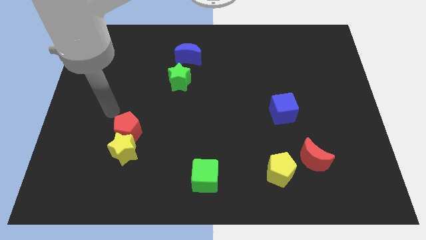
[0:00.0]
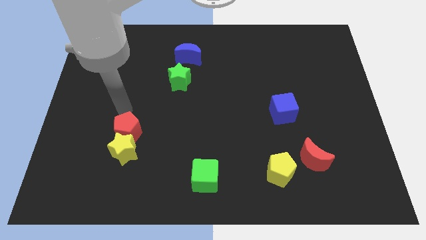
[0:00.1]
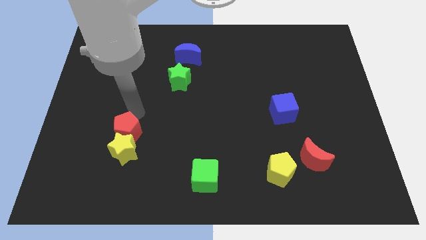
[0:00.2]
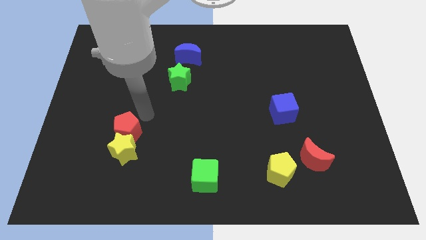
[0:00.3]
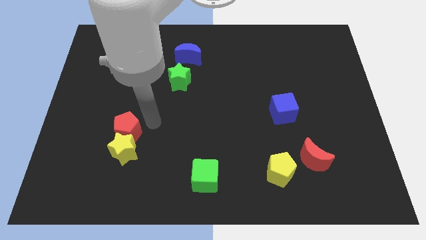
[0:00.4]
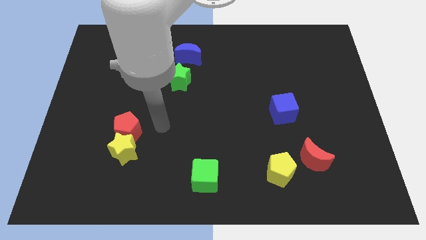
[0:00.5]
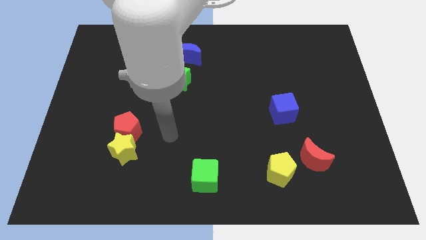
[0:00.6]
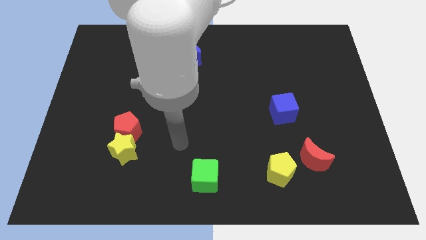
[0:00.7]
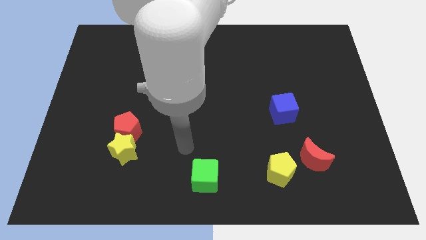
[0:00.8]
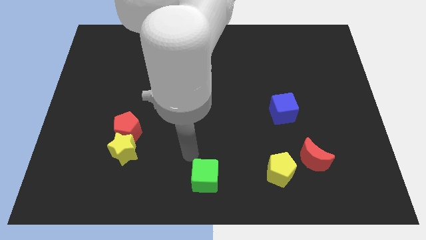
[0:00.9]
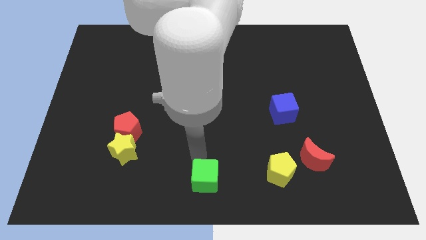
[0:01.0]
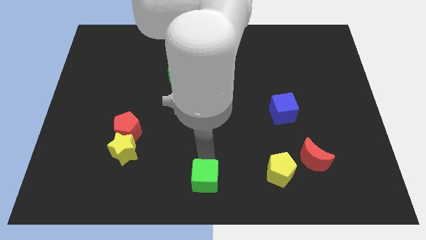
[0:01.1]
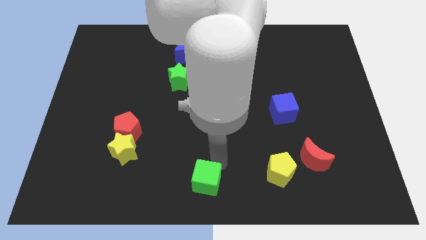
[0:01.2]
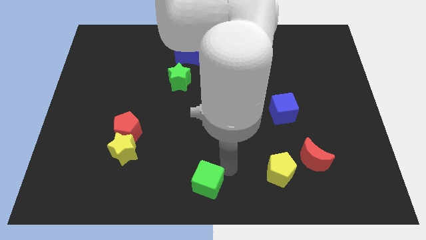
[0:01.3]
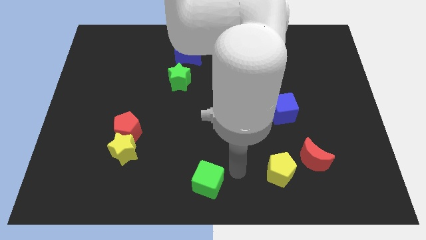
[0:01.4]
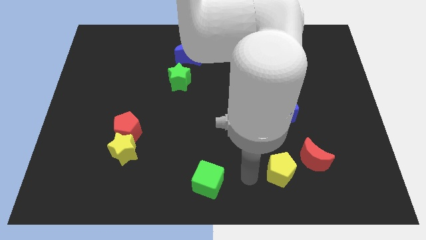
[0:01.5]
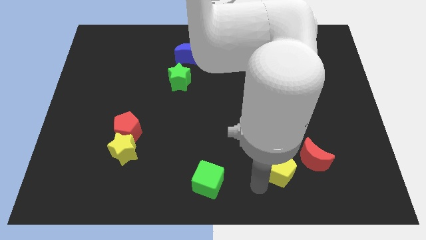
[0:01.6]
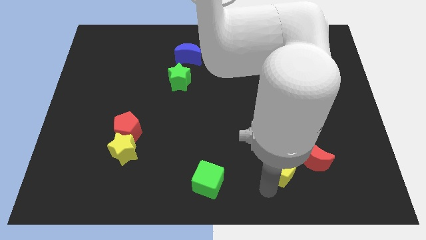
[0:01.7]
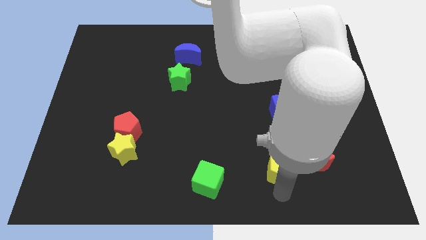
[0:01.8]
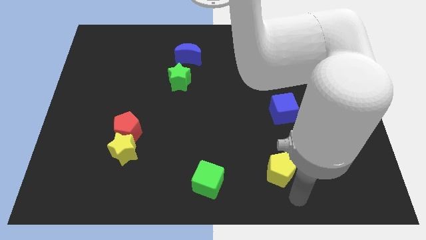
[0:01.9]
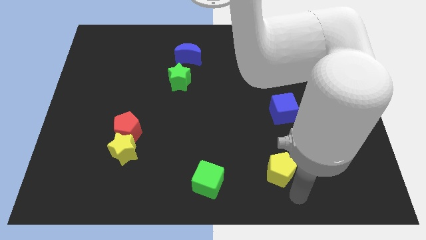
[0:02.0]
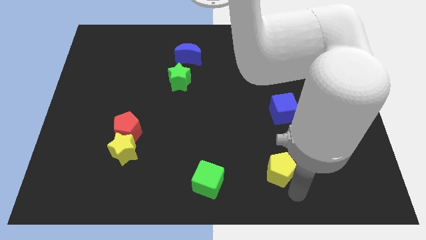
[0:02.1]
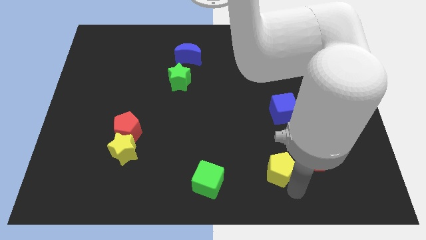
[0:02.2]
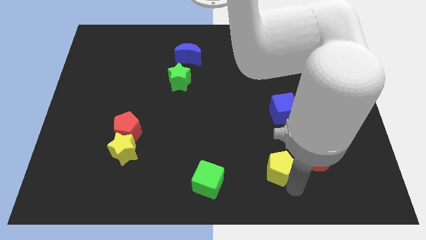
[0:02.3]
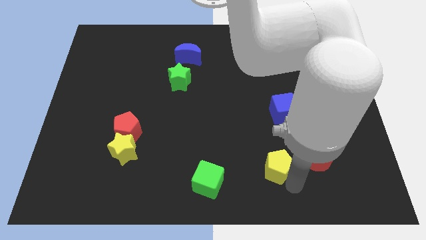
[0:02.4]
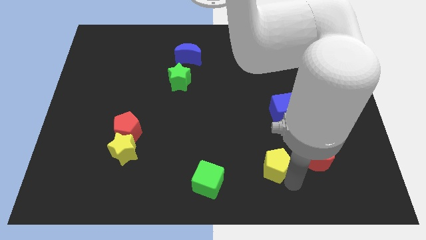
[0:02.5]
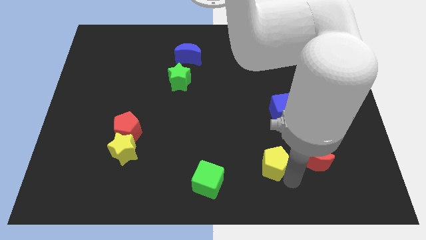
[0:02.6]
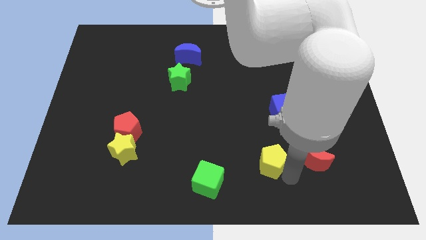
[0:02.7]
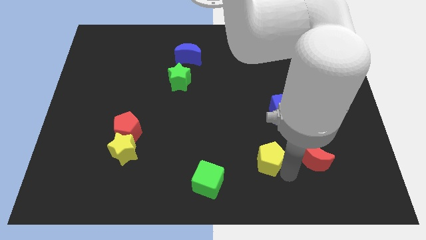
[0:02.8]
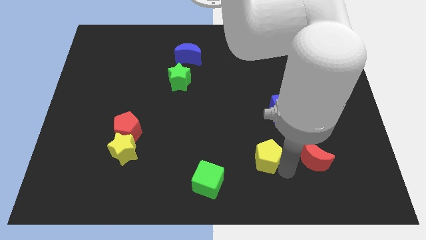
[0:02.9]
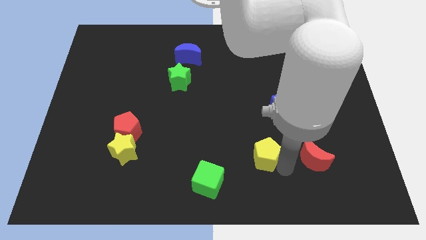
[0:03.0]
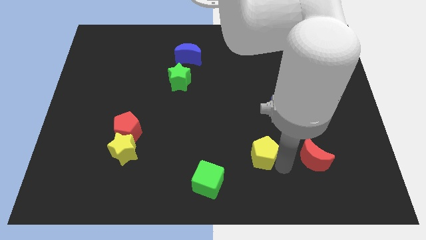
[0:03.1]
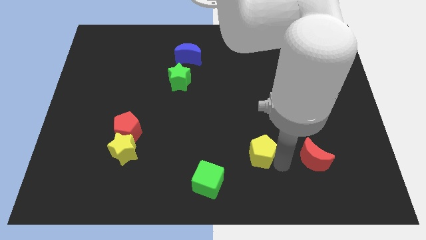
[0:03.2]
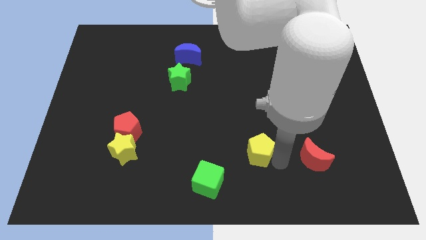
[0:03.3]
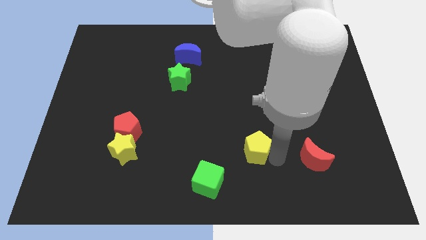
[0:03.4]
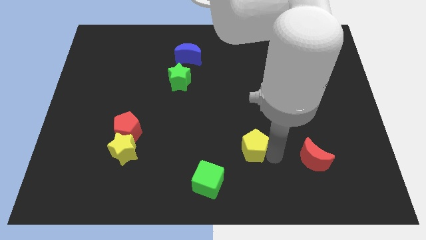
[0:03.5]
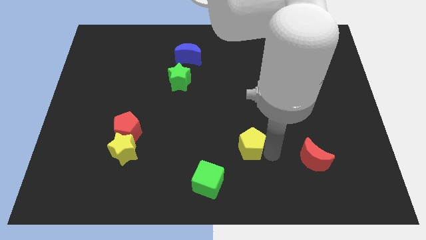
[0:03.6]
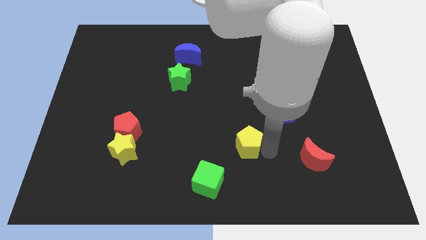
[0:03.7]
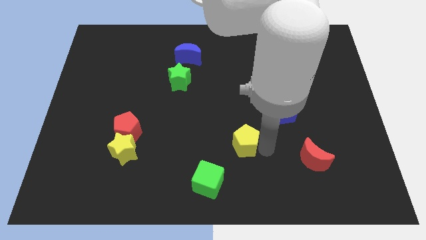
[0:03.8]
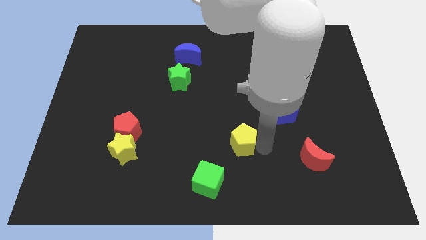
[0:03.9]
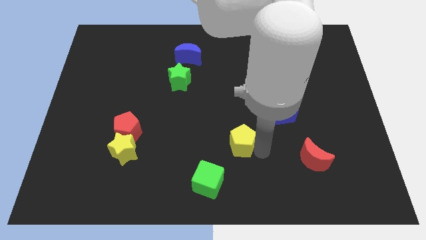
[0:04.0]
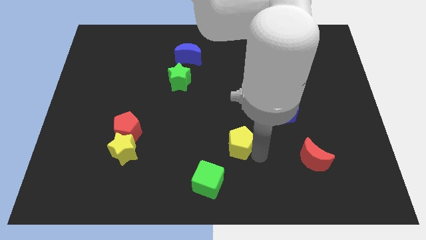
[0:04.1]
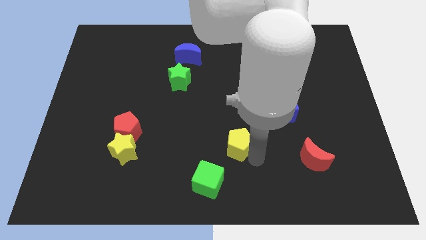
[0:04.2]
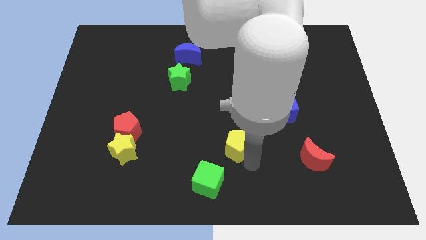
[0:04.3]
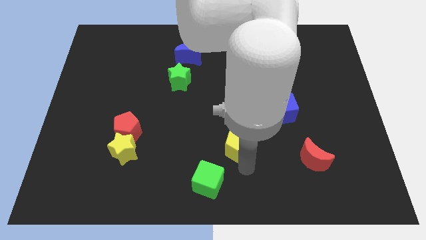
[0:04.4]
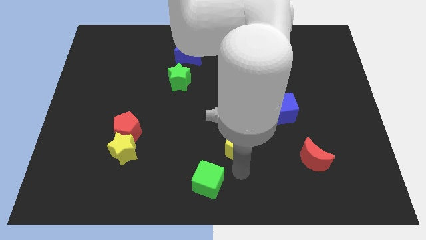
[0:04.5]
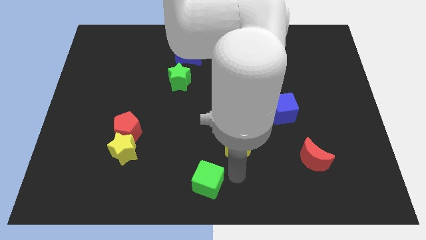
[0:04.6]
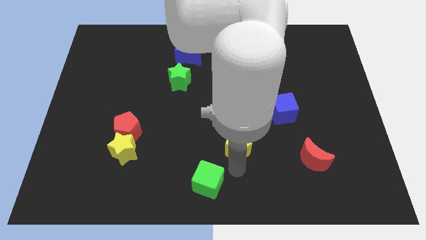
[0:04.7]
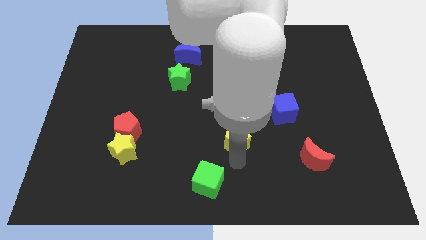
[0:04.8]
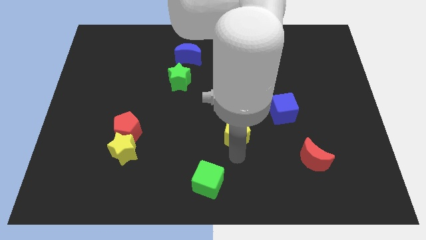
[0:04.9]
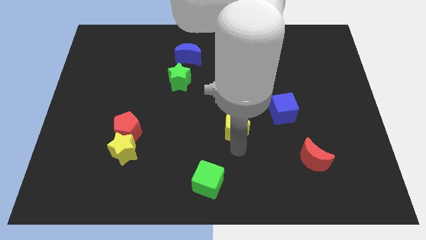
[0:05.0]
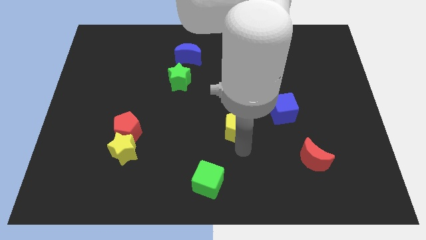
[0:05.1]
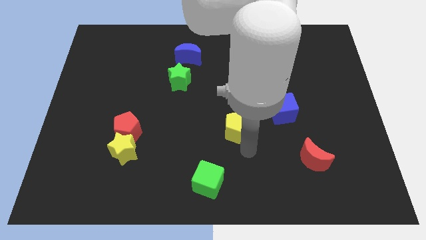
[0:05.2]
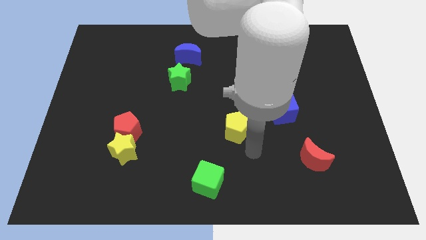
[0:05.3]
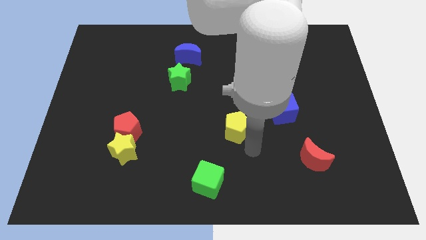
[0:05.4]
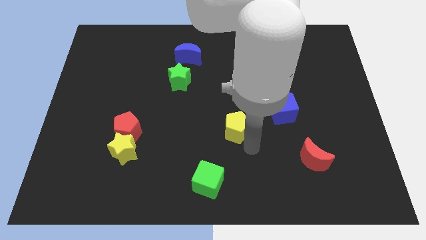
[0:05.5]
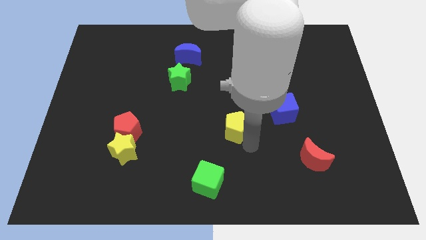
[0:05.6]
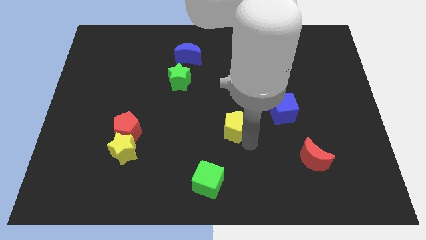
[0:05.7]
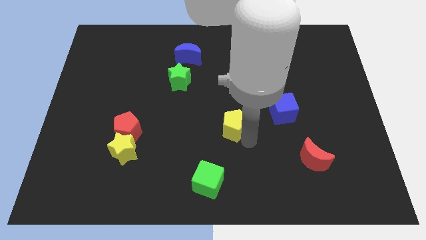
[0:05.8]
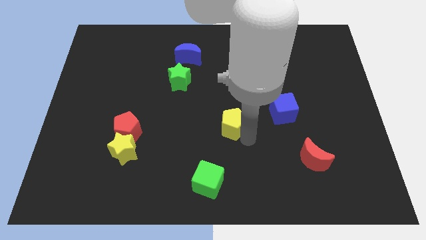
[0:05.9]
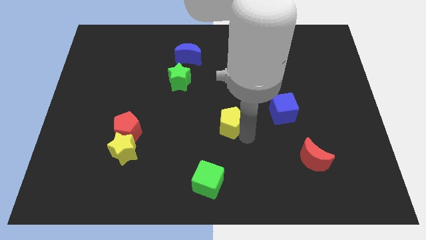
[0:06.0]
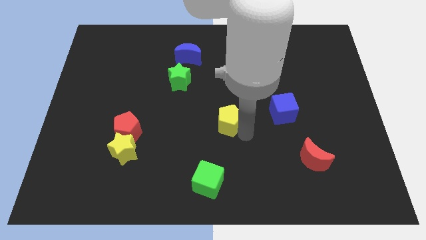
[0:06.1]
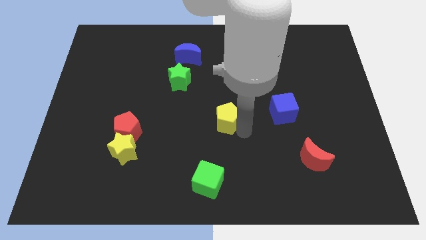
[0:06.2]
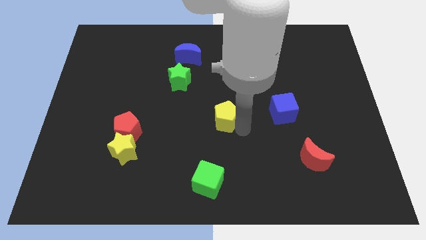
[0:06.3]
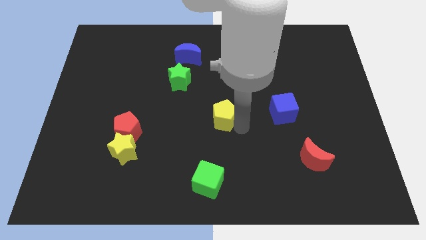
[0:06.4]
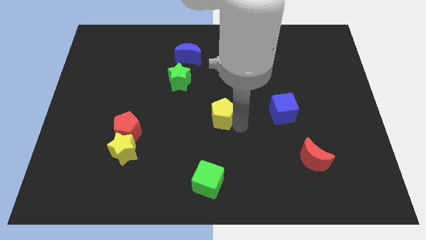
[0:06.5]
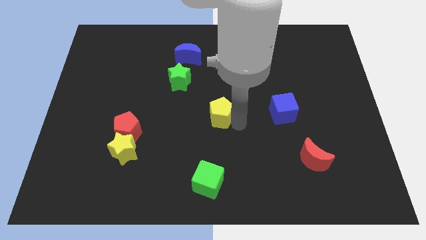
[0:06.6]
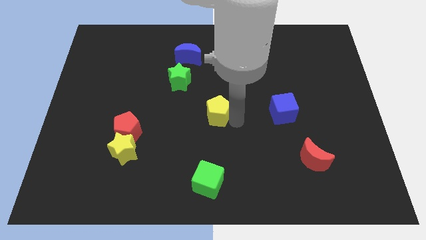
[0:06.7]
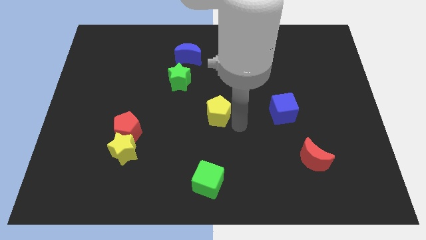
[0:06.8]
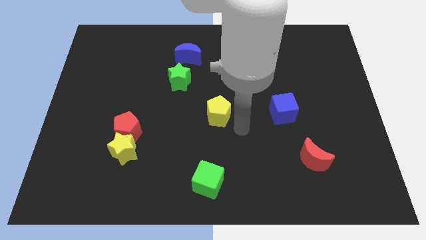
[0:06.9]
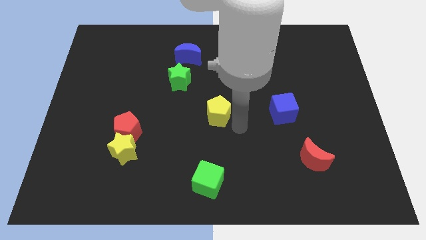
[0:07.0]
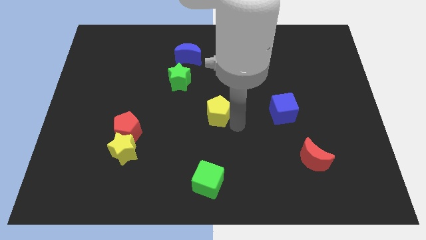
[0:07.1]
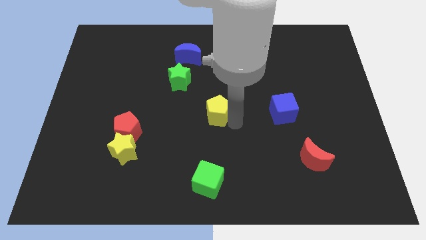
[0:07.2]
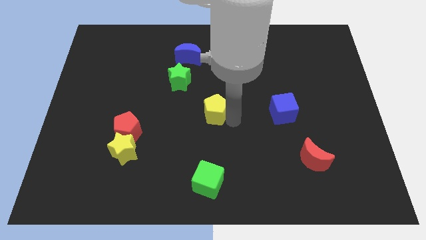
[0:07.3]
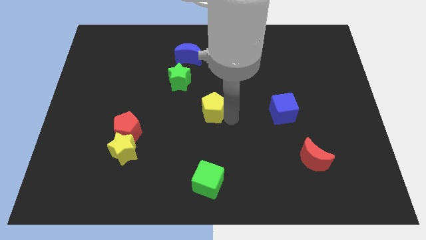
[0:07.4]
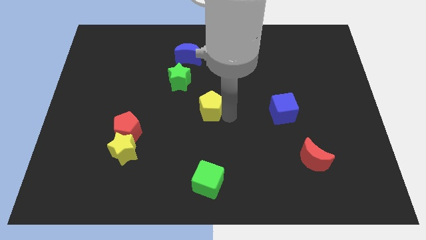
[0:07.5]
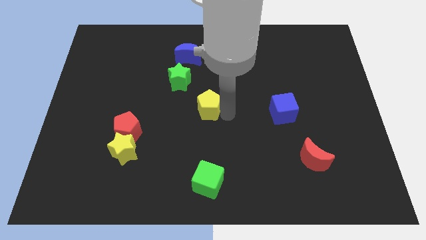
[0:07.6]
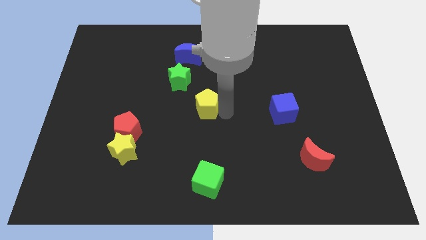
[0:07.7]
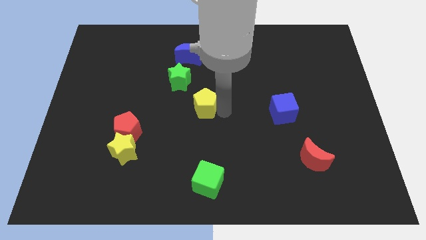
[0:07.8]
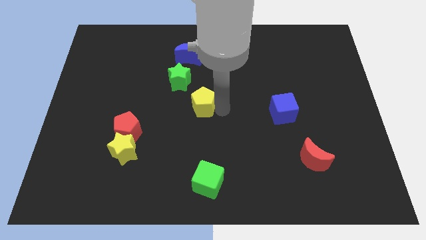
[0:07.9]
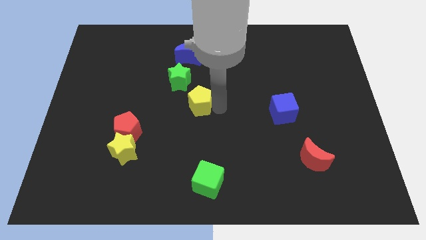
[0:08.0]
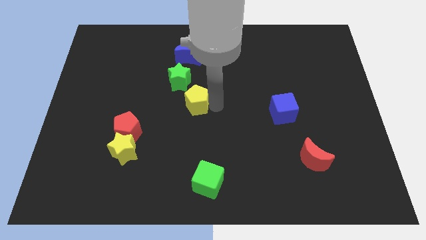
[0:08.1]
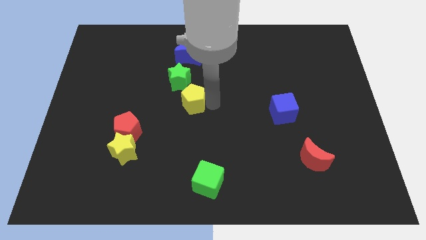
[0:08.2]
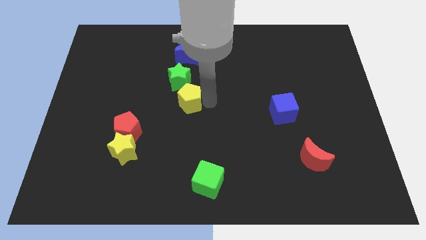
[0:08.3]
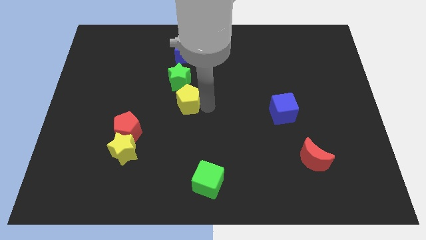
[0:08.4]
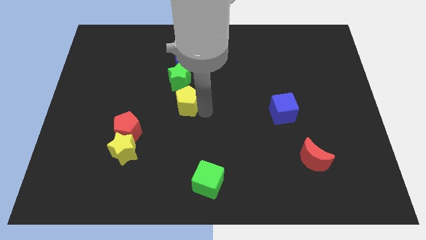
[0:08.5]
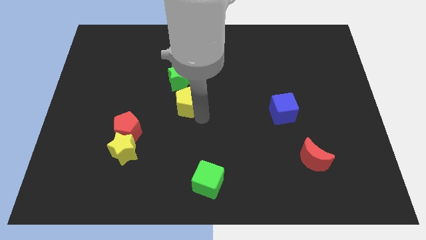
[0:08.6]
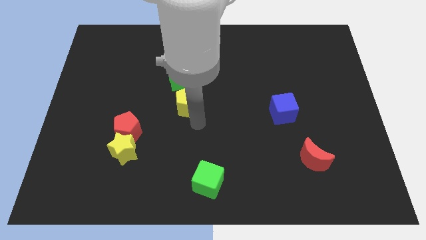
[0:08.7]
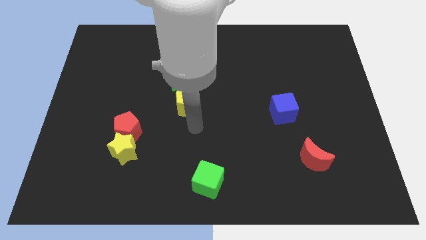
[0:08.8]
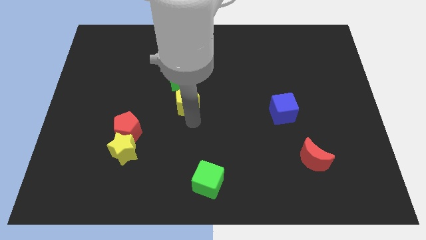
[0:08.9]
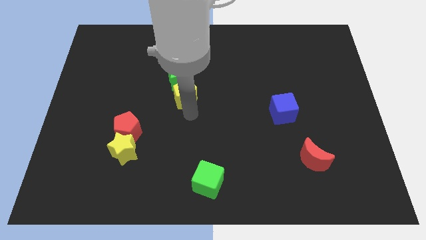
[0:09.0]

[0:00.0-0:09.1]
push the yellow pentagon next to the green star
